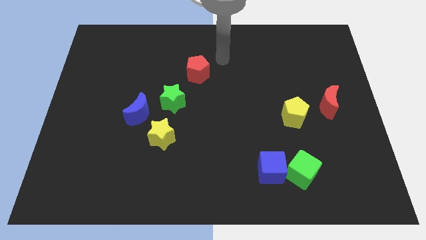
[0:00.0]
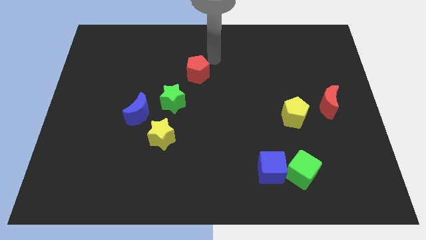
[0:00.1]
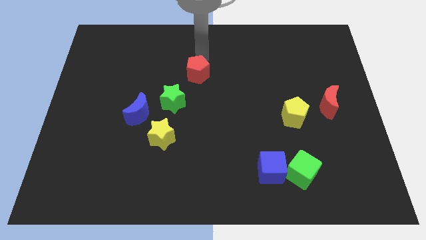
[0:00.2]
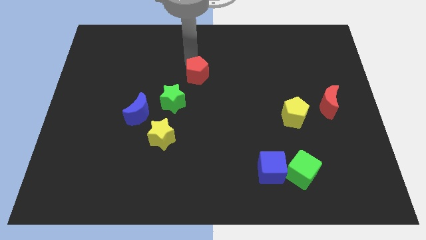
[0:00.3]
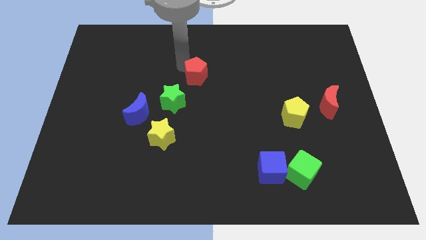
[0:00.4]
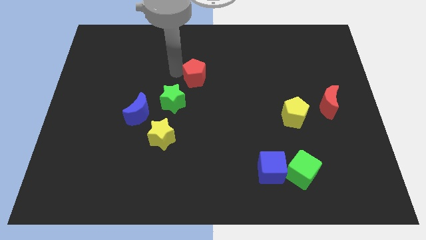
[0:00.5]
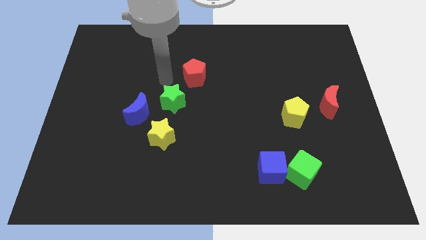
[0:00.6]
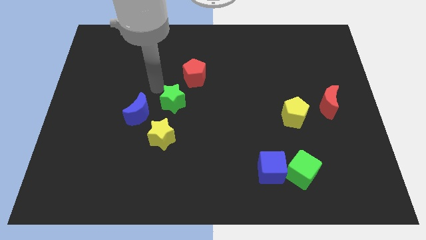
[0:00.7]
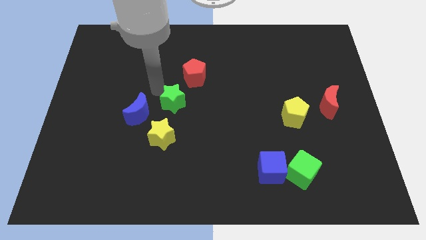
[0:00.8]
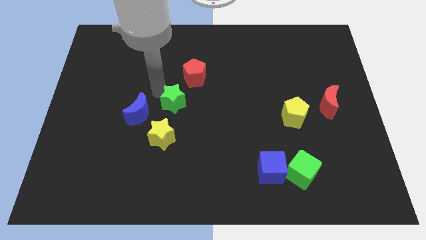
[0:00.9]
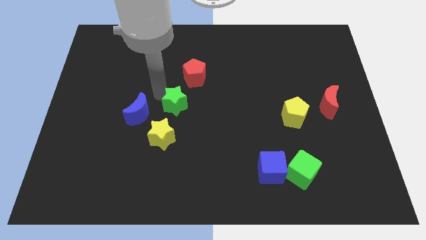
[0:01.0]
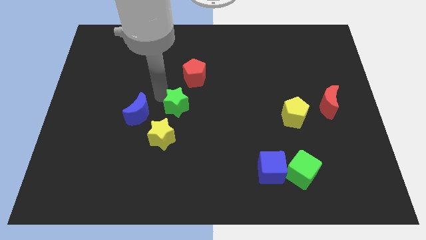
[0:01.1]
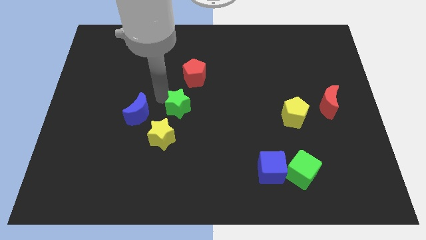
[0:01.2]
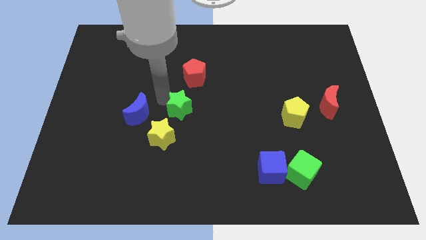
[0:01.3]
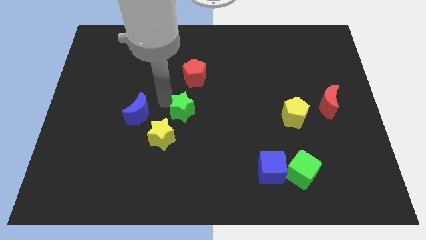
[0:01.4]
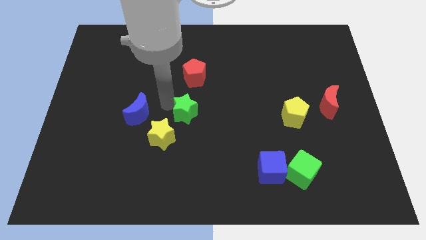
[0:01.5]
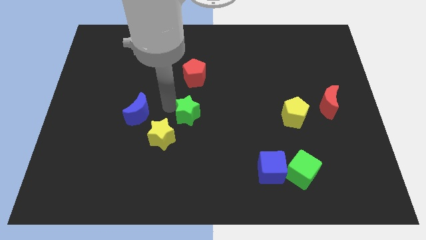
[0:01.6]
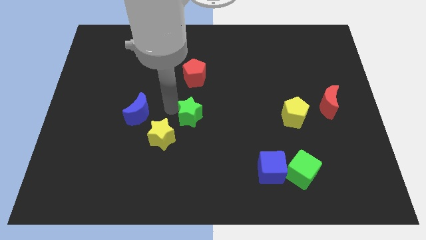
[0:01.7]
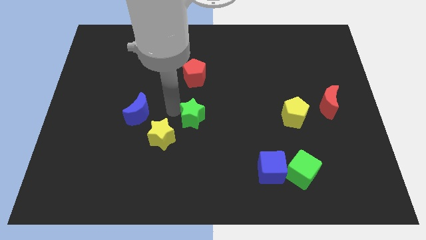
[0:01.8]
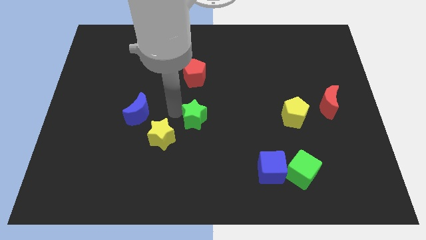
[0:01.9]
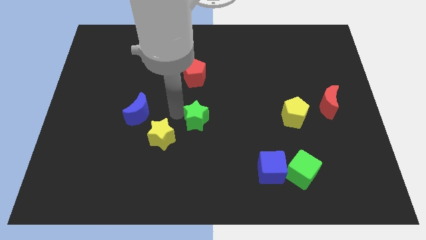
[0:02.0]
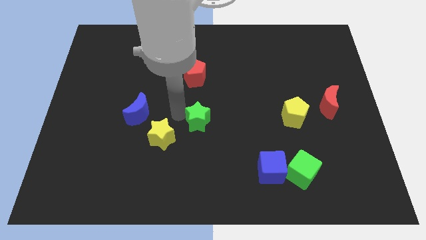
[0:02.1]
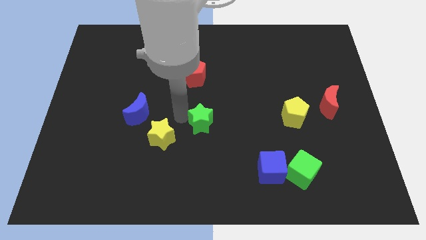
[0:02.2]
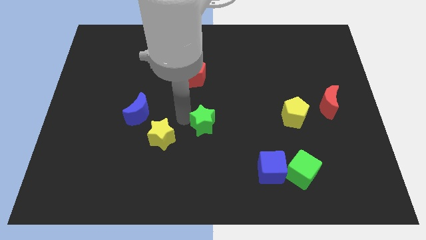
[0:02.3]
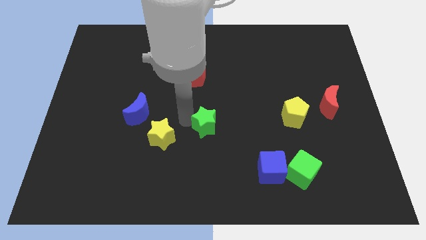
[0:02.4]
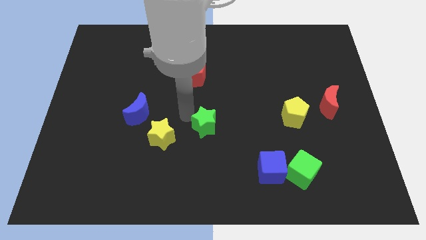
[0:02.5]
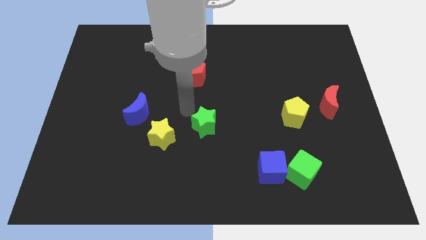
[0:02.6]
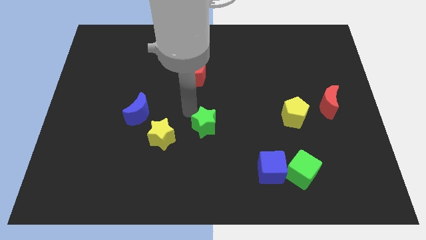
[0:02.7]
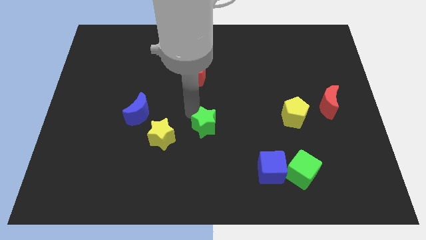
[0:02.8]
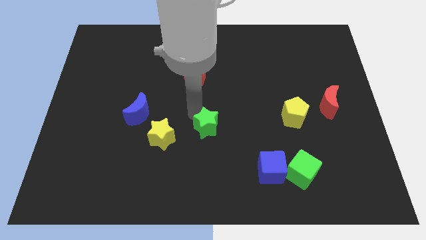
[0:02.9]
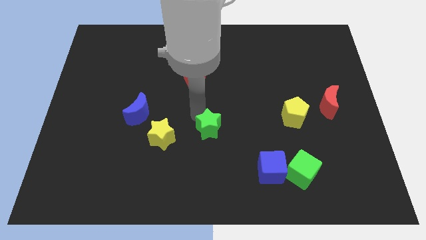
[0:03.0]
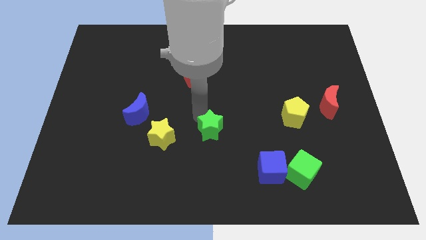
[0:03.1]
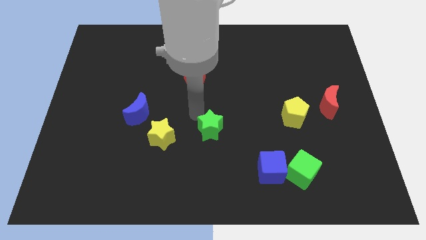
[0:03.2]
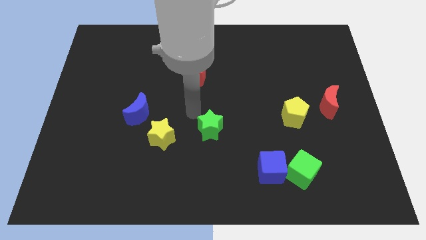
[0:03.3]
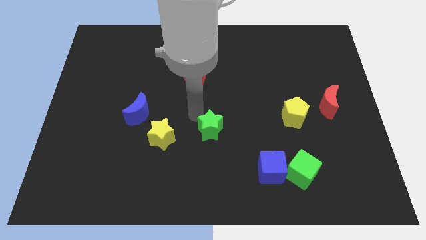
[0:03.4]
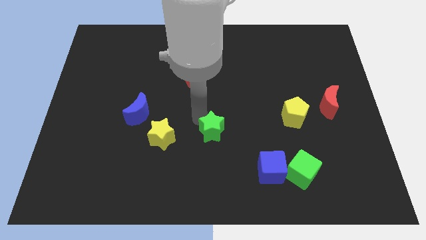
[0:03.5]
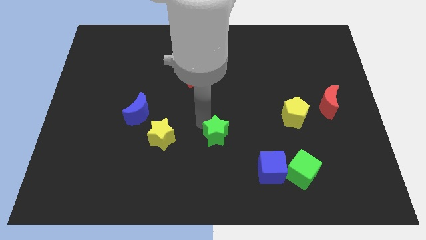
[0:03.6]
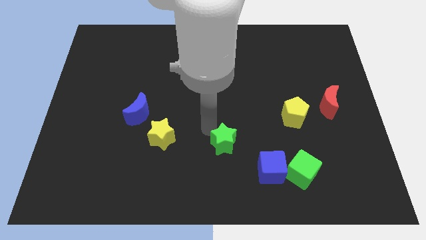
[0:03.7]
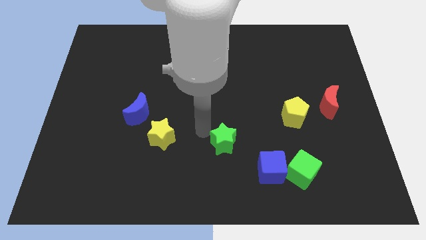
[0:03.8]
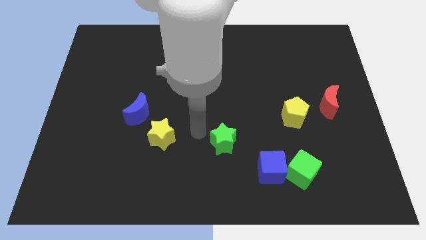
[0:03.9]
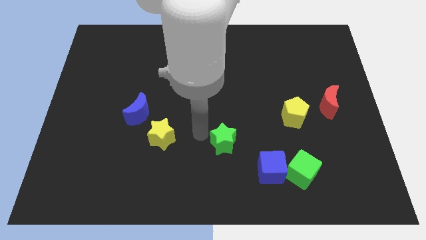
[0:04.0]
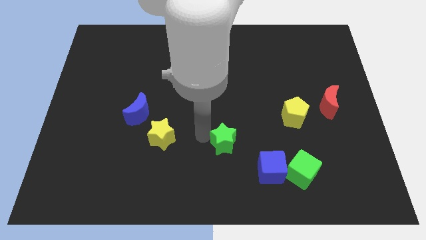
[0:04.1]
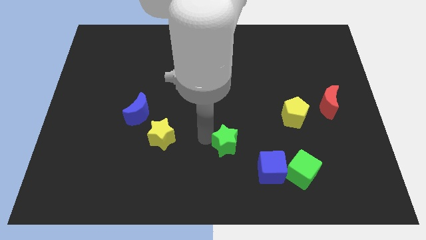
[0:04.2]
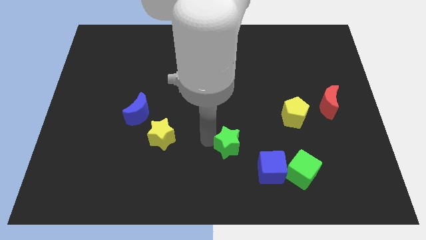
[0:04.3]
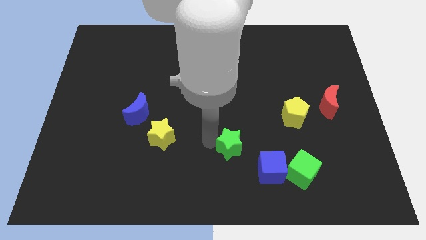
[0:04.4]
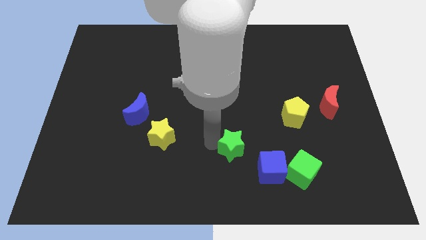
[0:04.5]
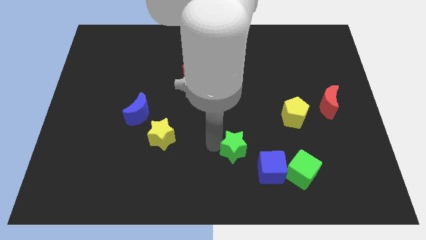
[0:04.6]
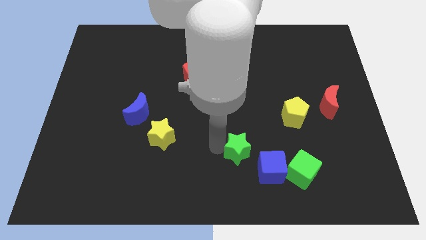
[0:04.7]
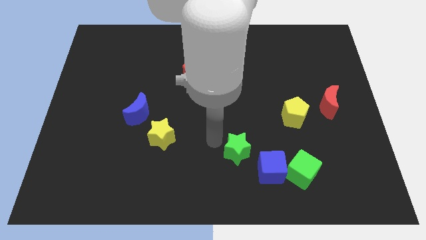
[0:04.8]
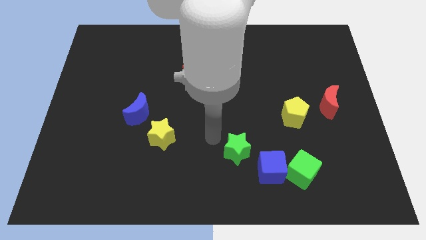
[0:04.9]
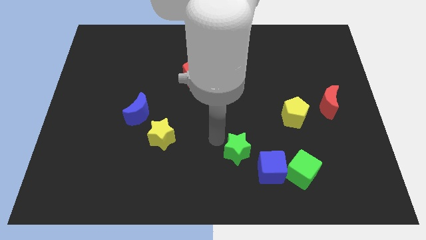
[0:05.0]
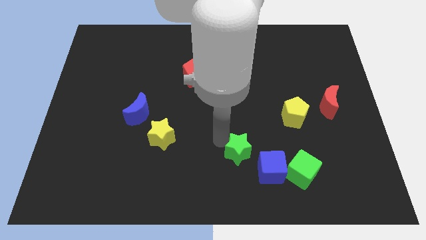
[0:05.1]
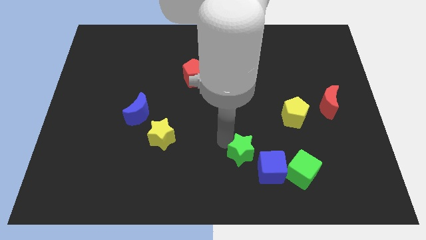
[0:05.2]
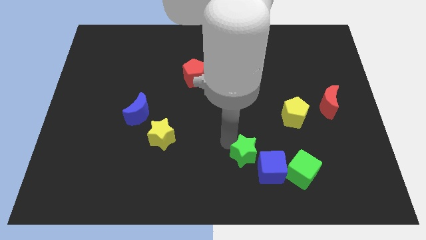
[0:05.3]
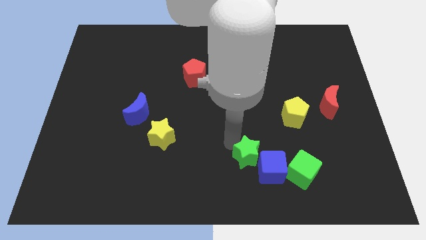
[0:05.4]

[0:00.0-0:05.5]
push the green star next to the blue cube

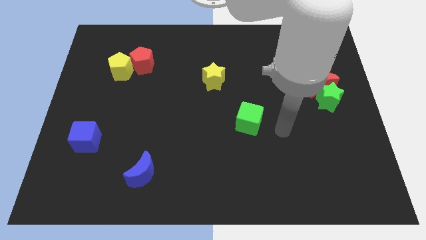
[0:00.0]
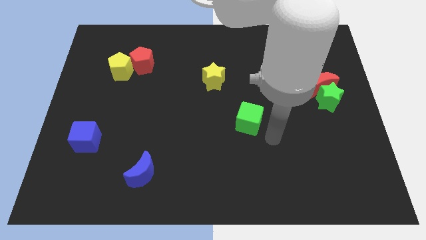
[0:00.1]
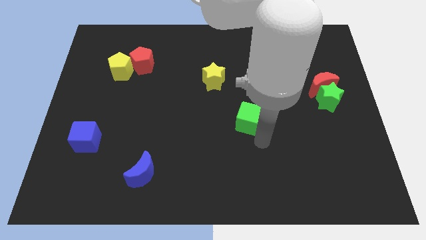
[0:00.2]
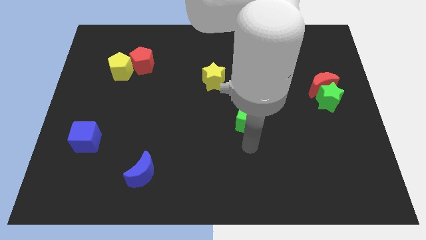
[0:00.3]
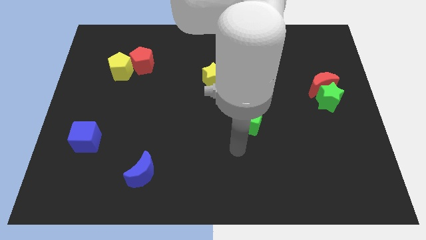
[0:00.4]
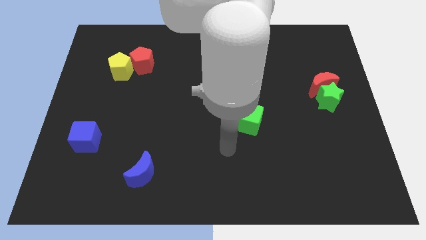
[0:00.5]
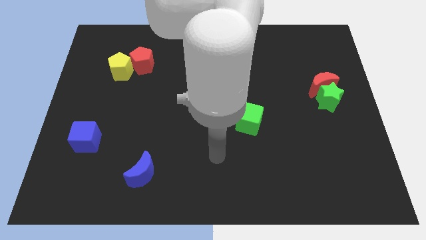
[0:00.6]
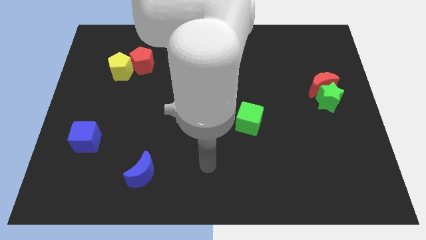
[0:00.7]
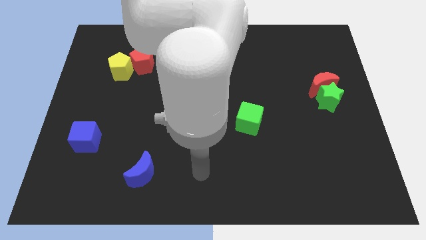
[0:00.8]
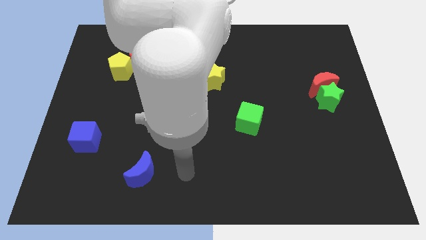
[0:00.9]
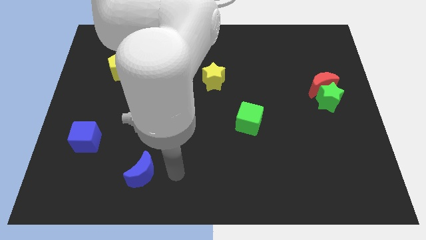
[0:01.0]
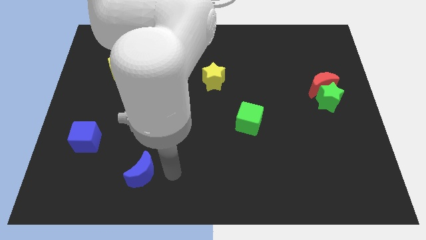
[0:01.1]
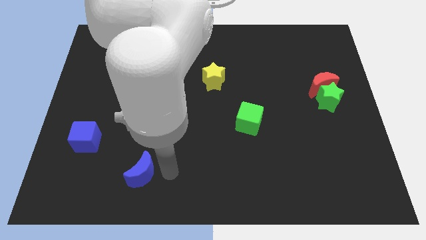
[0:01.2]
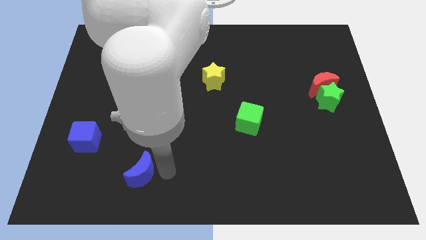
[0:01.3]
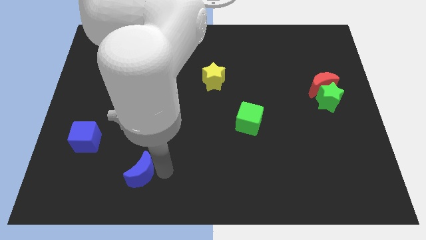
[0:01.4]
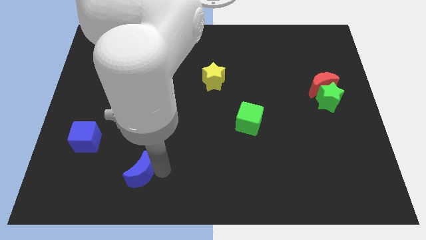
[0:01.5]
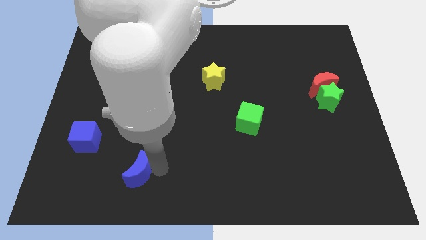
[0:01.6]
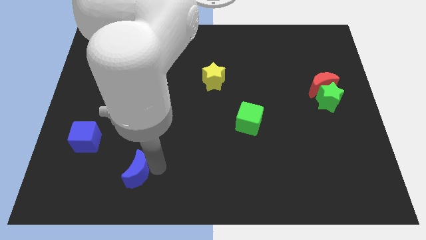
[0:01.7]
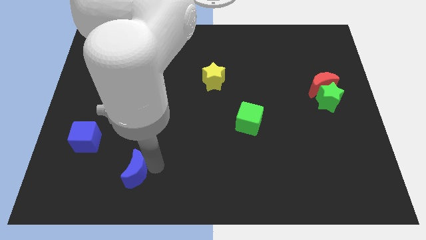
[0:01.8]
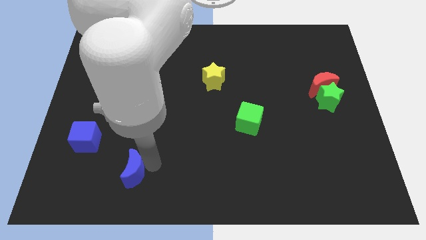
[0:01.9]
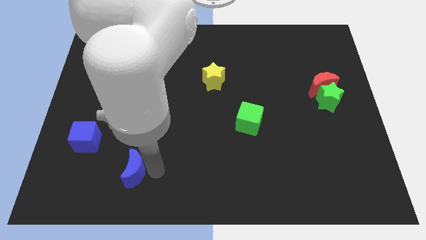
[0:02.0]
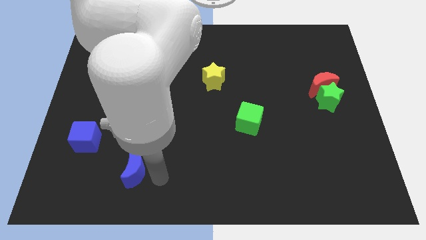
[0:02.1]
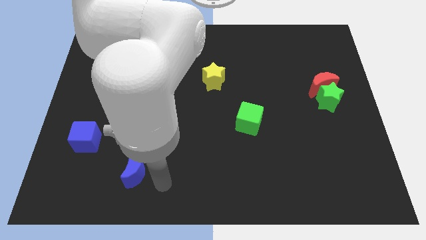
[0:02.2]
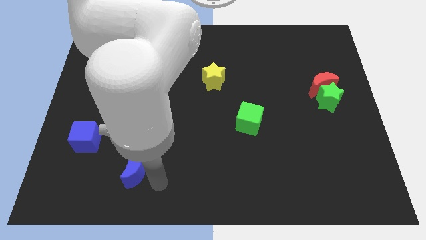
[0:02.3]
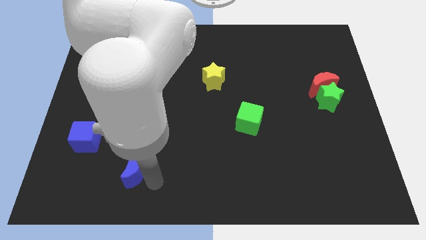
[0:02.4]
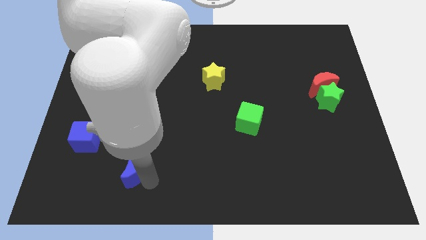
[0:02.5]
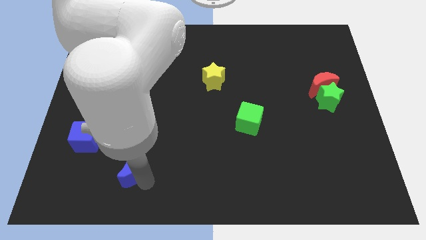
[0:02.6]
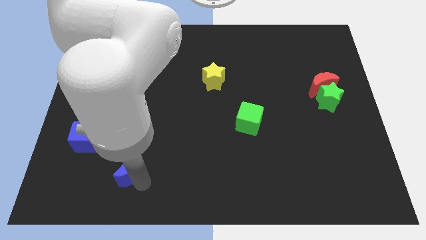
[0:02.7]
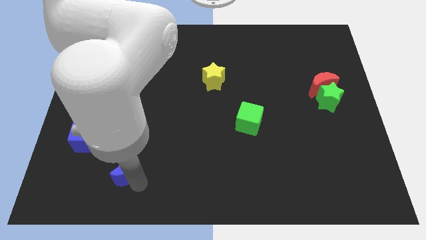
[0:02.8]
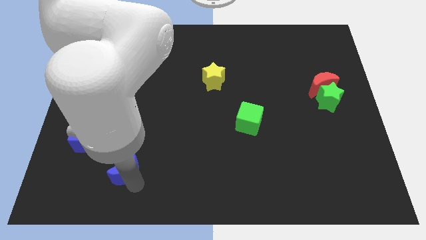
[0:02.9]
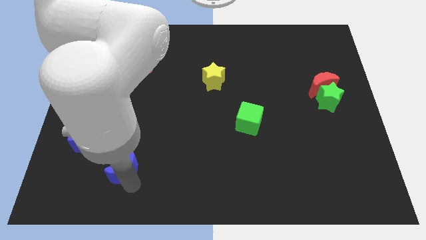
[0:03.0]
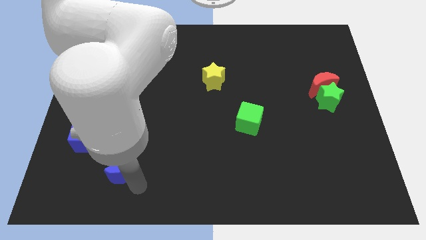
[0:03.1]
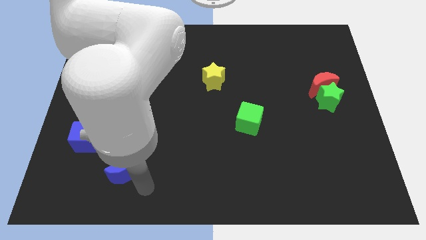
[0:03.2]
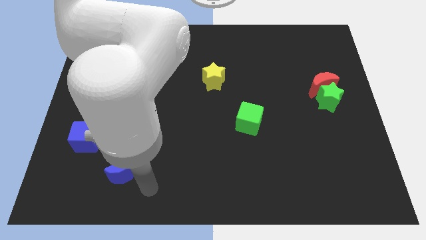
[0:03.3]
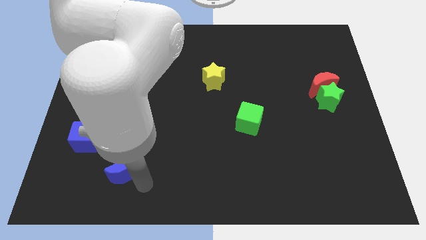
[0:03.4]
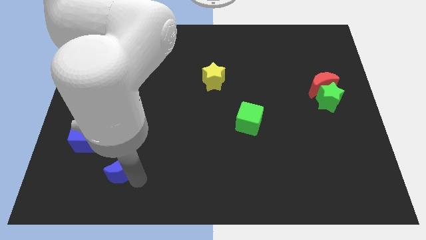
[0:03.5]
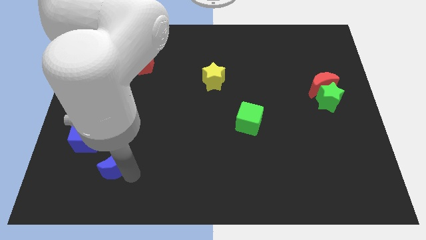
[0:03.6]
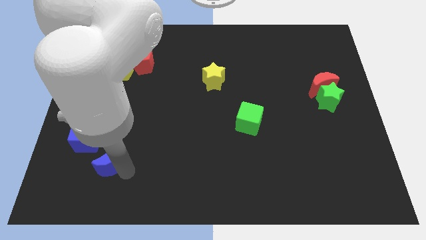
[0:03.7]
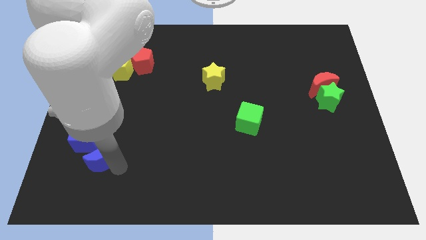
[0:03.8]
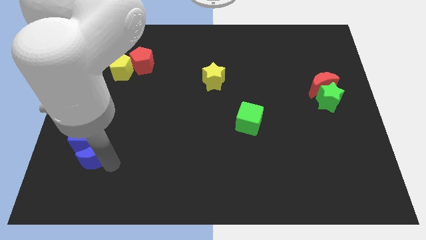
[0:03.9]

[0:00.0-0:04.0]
push the blue moon next to the blue cube
